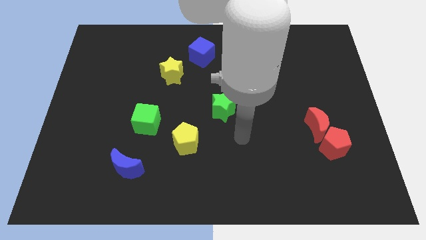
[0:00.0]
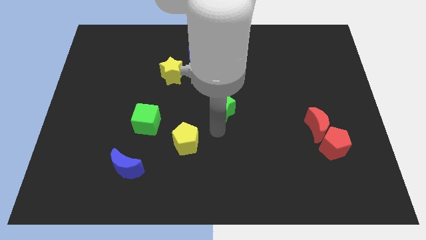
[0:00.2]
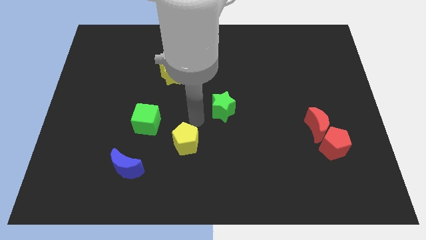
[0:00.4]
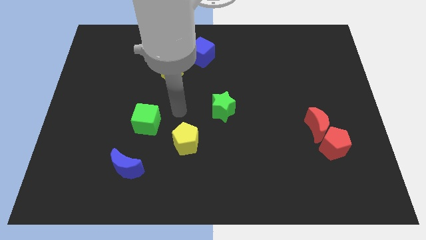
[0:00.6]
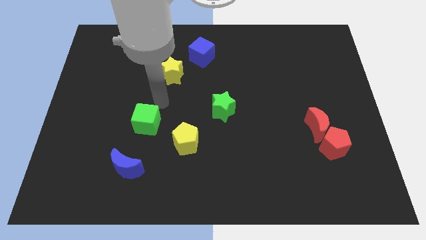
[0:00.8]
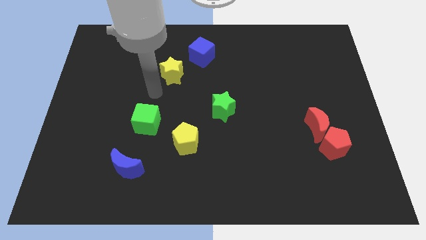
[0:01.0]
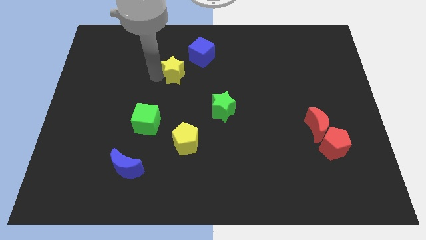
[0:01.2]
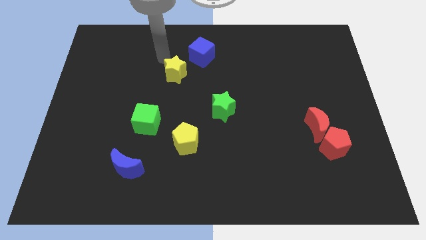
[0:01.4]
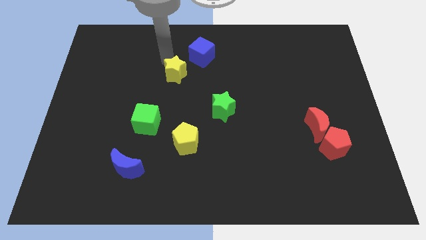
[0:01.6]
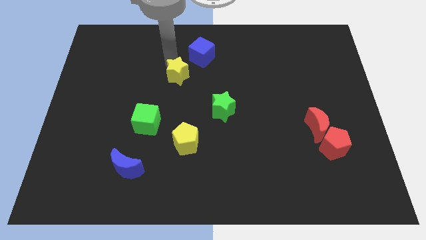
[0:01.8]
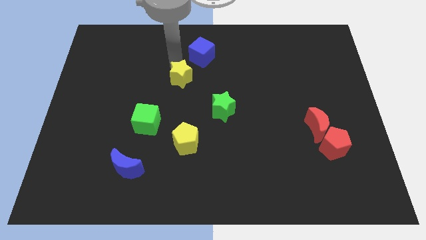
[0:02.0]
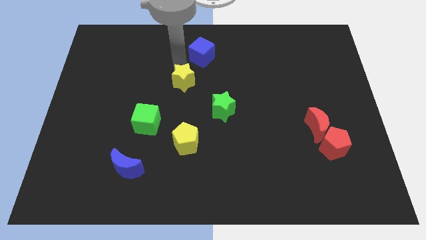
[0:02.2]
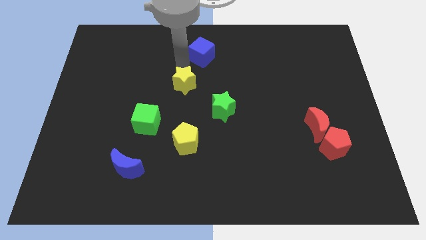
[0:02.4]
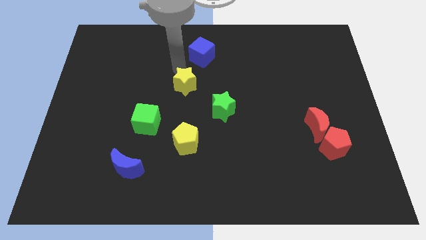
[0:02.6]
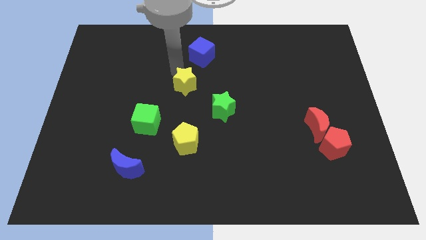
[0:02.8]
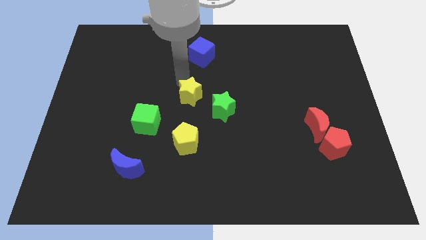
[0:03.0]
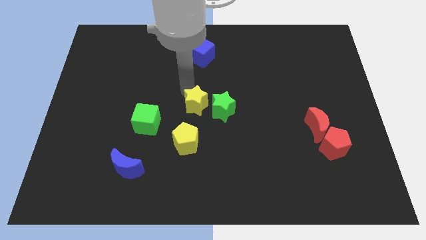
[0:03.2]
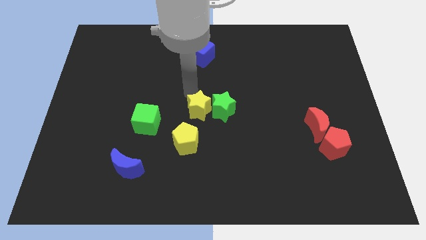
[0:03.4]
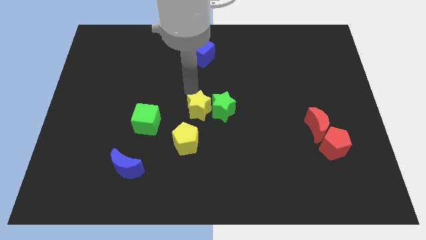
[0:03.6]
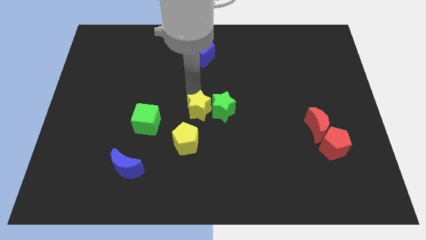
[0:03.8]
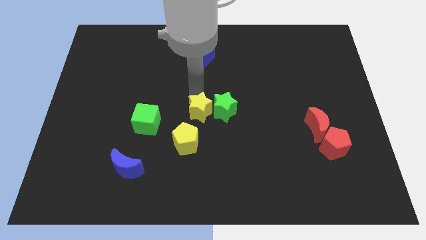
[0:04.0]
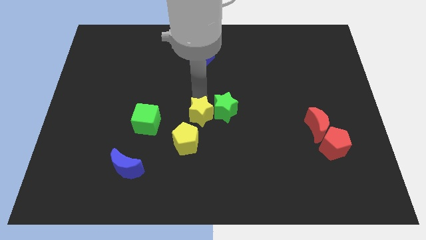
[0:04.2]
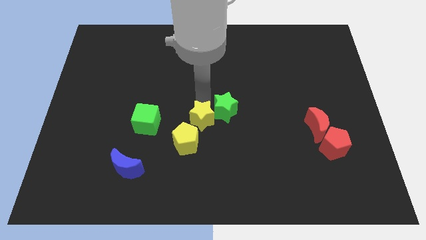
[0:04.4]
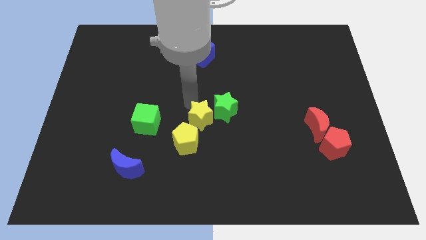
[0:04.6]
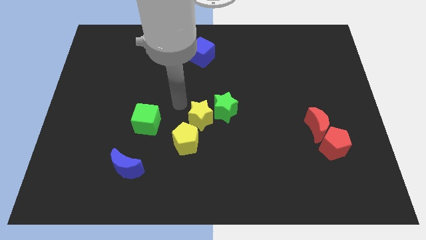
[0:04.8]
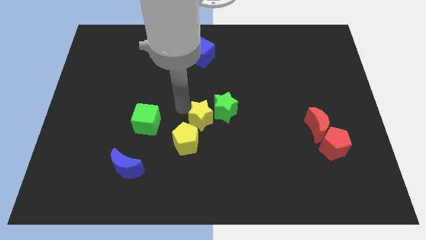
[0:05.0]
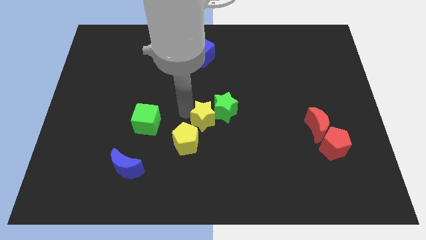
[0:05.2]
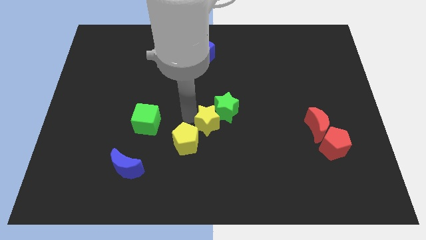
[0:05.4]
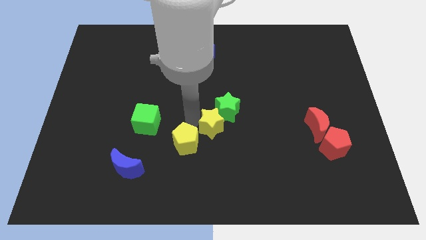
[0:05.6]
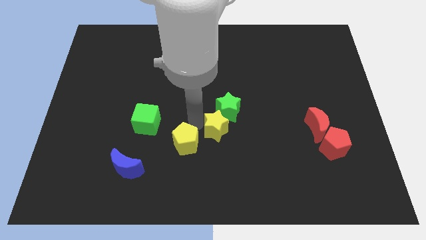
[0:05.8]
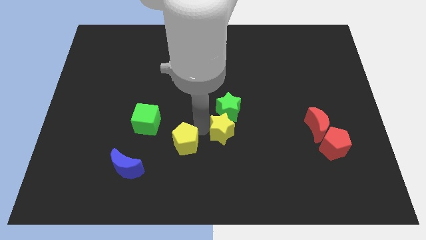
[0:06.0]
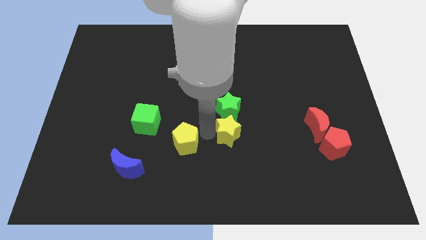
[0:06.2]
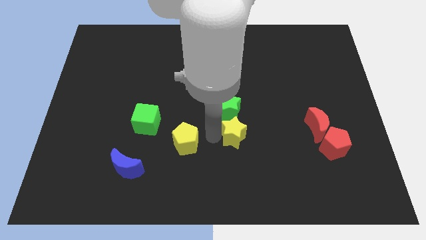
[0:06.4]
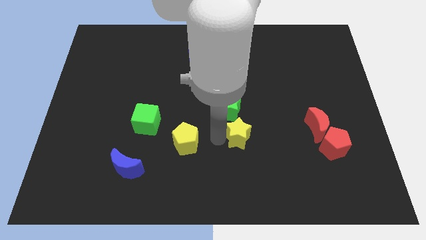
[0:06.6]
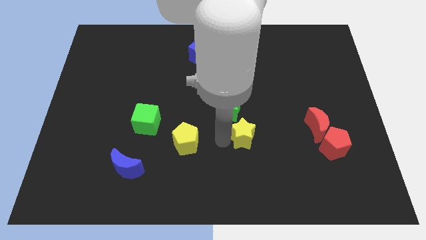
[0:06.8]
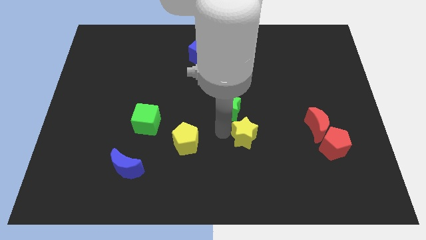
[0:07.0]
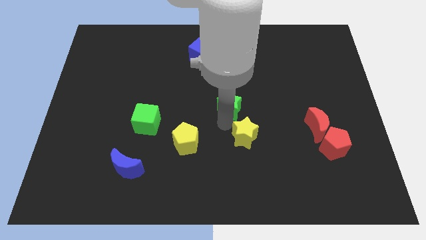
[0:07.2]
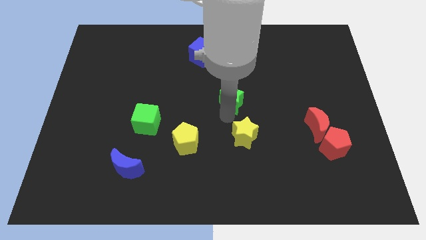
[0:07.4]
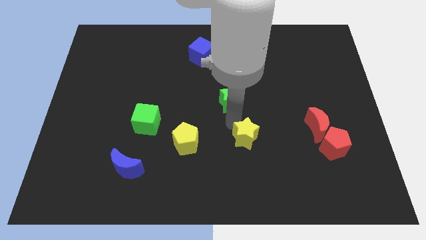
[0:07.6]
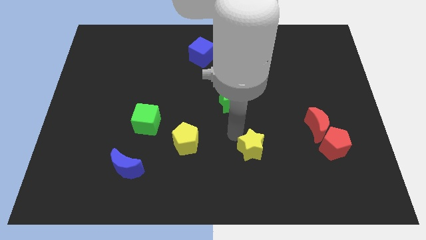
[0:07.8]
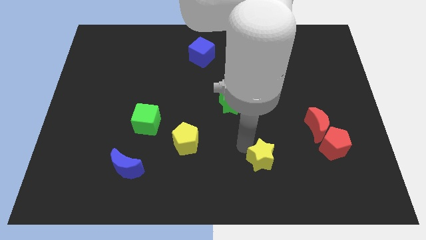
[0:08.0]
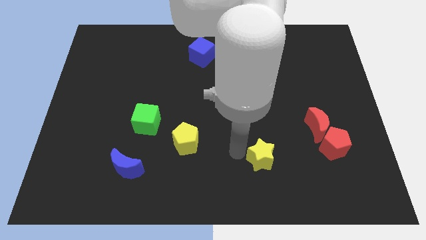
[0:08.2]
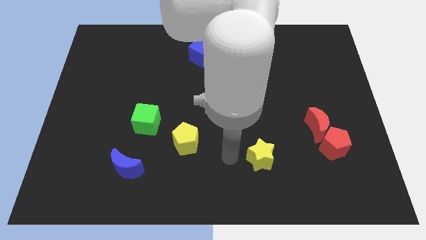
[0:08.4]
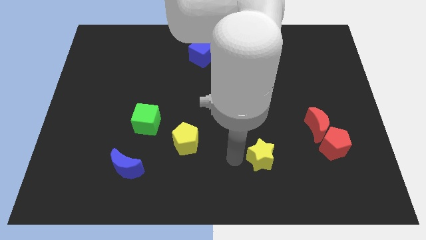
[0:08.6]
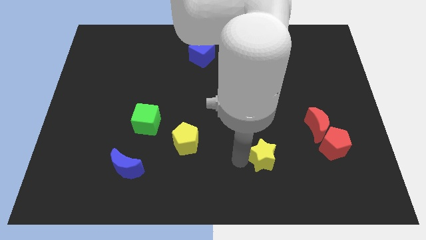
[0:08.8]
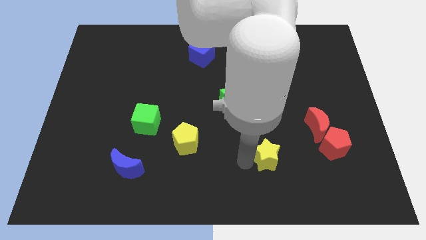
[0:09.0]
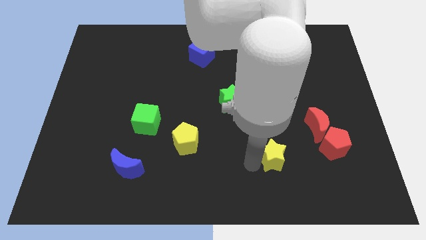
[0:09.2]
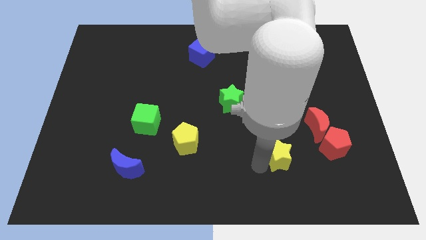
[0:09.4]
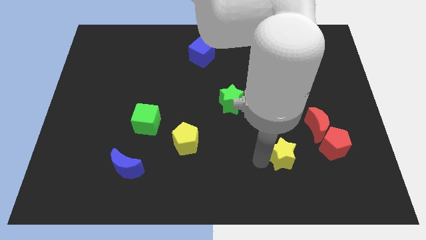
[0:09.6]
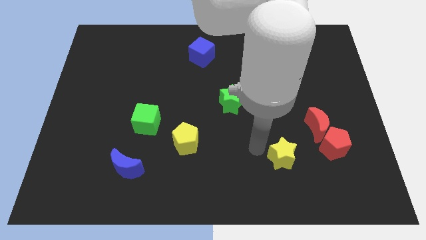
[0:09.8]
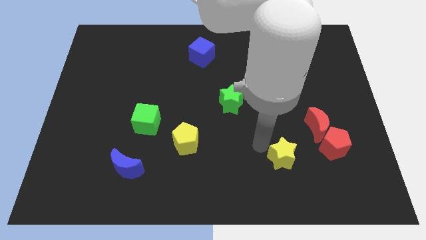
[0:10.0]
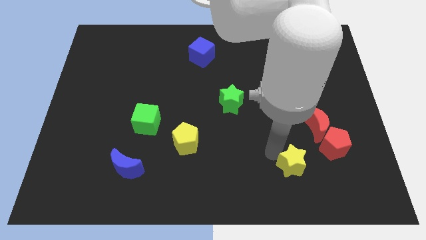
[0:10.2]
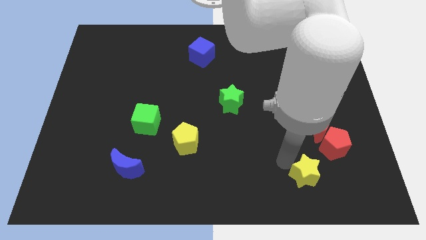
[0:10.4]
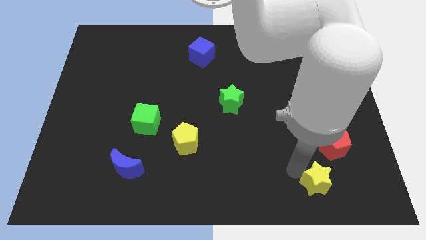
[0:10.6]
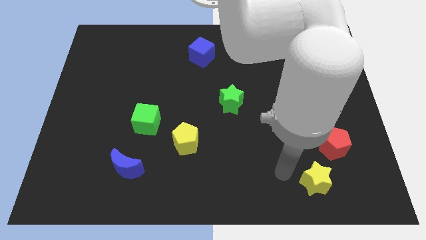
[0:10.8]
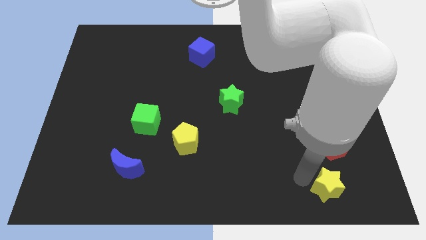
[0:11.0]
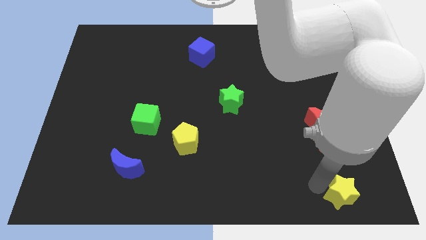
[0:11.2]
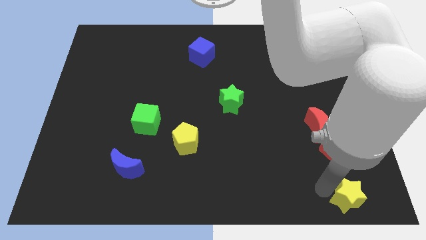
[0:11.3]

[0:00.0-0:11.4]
move the yellow star to the lower right corner
